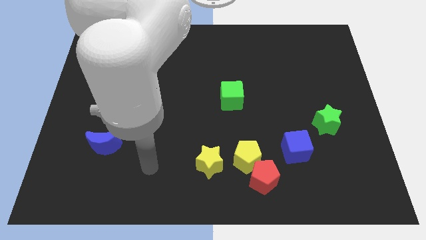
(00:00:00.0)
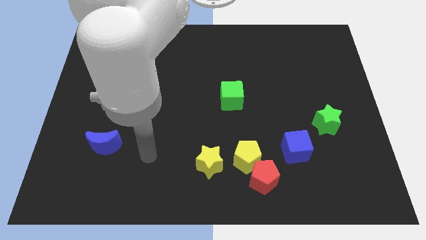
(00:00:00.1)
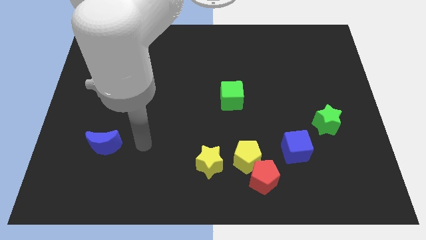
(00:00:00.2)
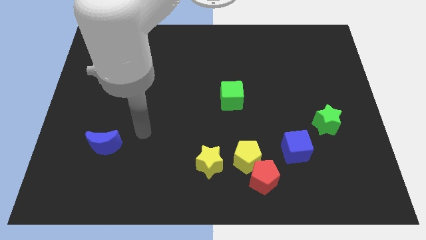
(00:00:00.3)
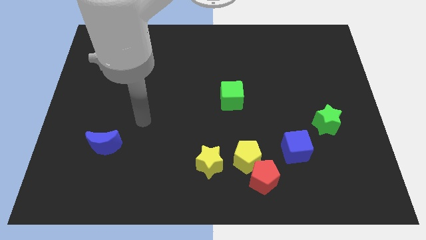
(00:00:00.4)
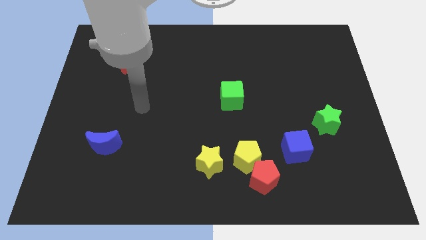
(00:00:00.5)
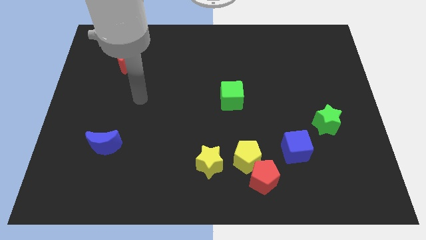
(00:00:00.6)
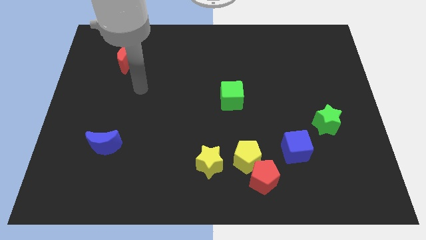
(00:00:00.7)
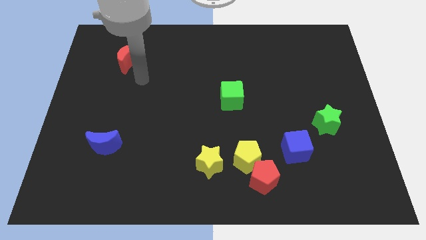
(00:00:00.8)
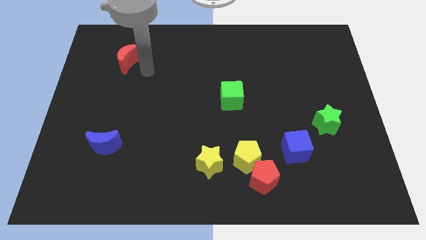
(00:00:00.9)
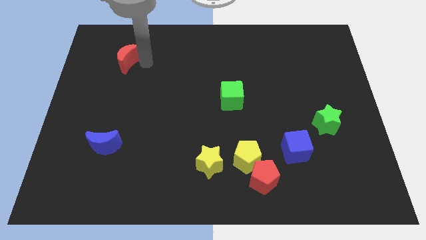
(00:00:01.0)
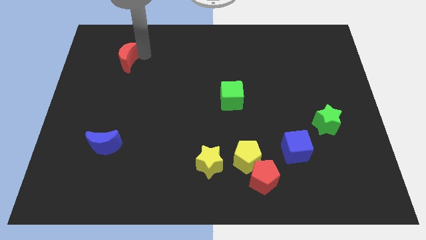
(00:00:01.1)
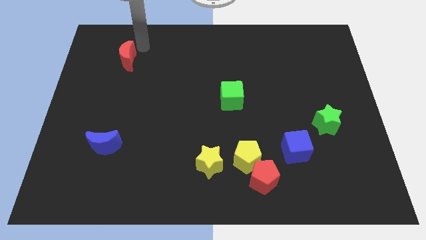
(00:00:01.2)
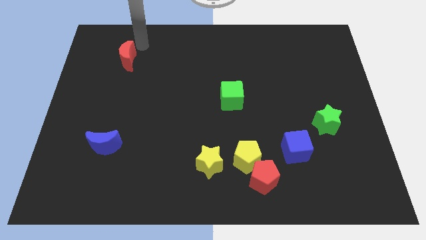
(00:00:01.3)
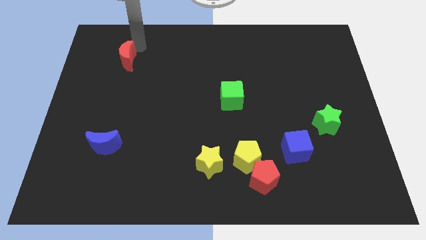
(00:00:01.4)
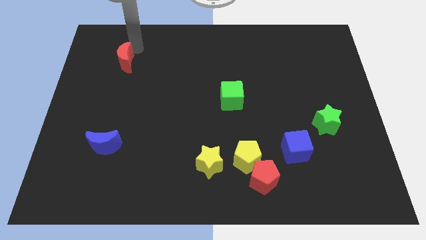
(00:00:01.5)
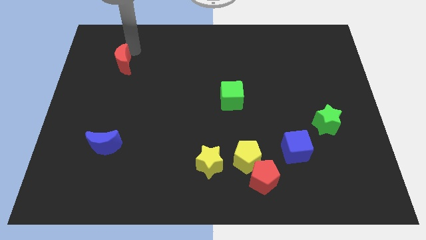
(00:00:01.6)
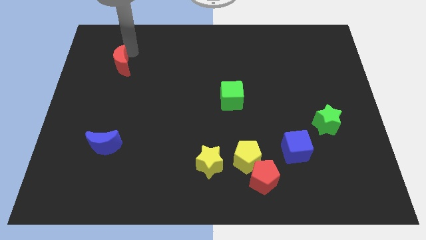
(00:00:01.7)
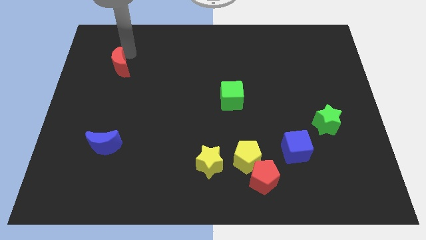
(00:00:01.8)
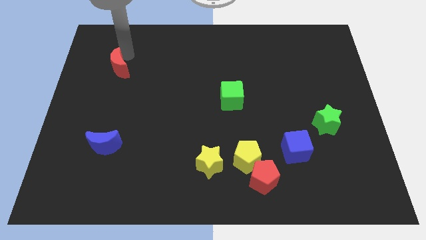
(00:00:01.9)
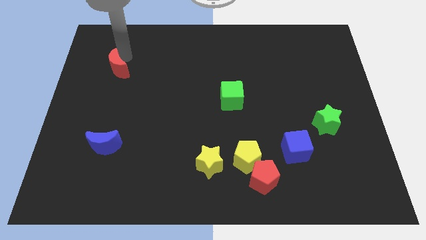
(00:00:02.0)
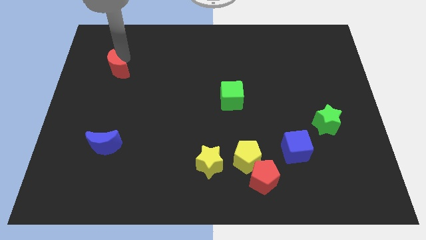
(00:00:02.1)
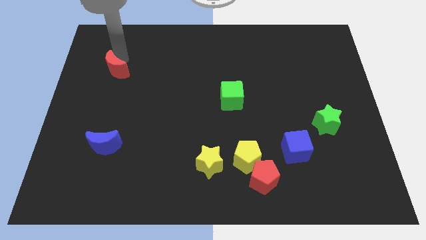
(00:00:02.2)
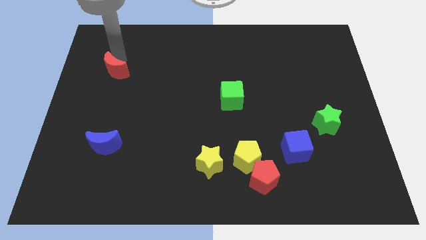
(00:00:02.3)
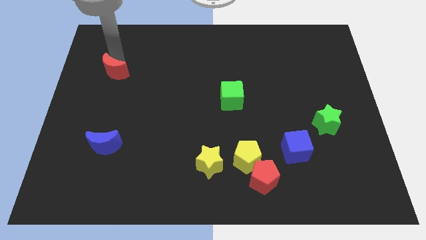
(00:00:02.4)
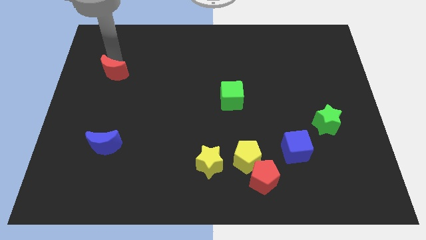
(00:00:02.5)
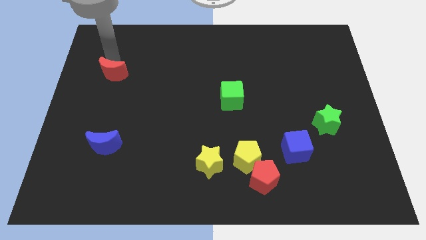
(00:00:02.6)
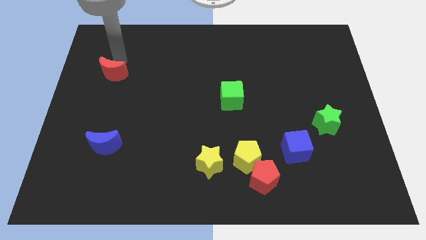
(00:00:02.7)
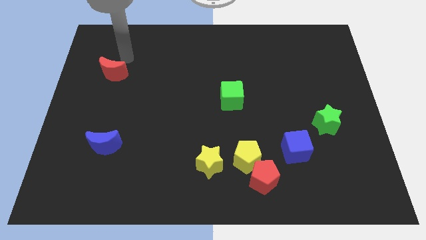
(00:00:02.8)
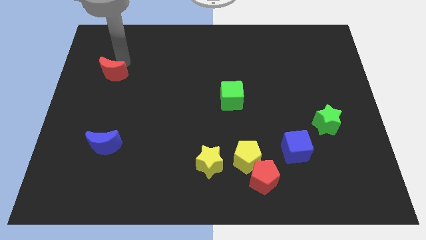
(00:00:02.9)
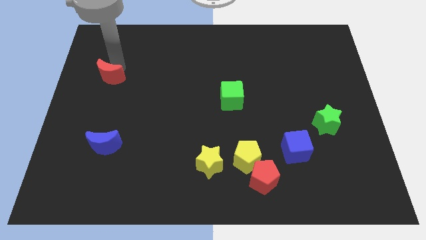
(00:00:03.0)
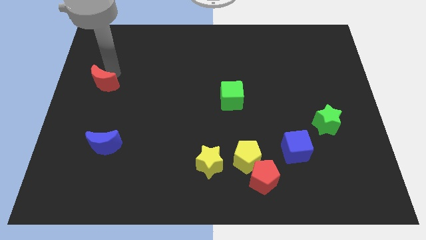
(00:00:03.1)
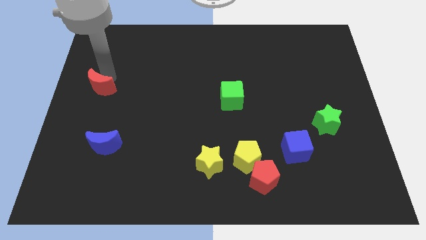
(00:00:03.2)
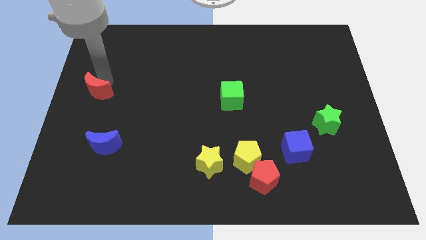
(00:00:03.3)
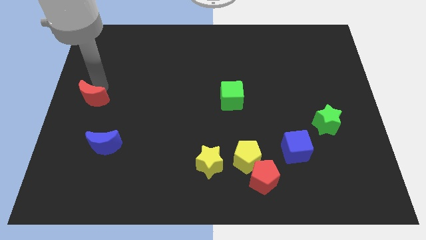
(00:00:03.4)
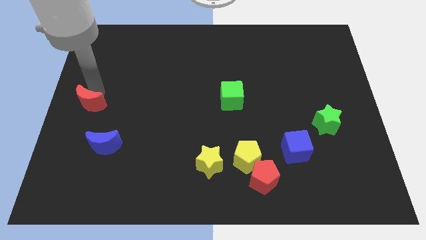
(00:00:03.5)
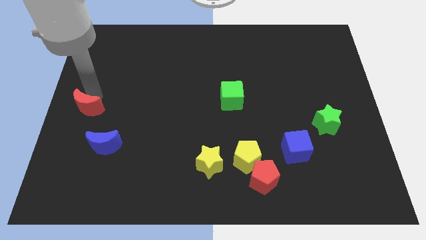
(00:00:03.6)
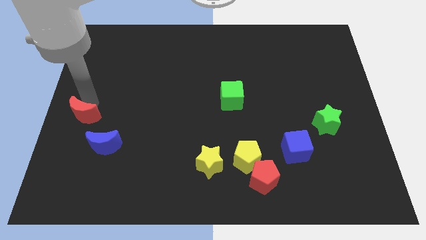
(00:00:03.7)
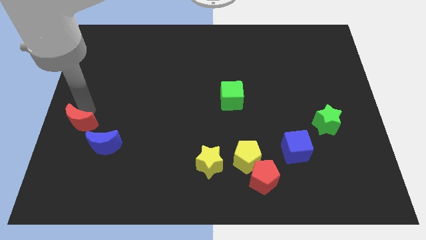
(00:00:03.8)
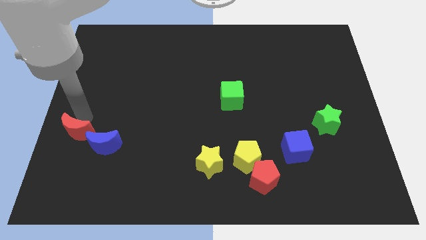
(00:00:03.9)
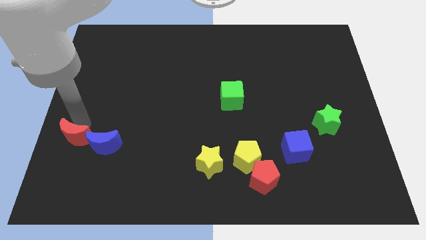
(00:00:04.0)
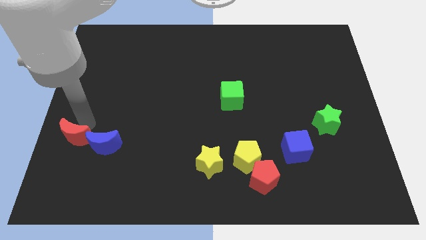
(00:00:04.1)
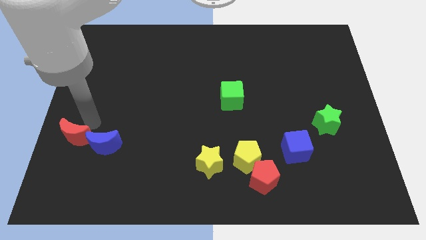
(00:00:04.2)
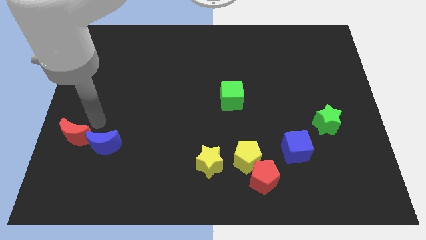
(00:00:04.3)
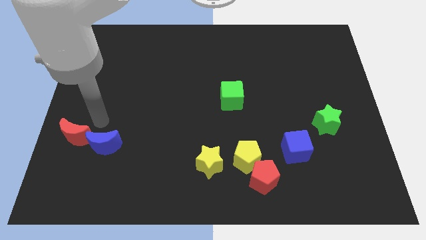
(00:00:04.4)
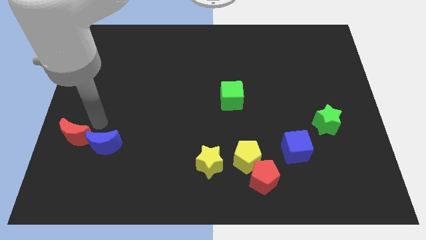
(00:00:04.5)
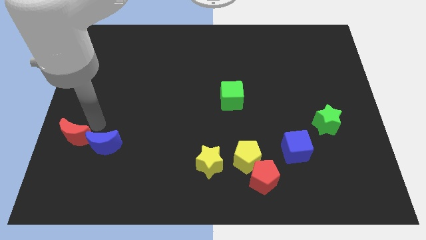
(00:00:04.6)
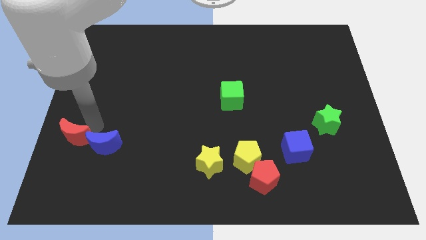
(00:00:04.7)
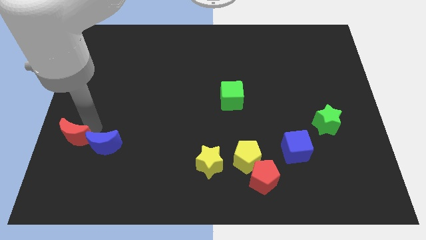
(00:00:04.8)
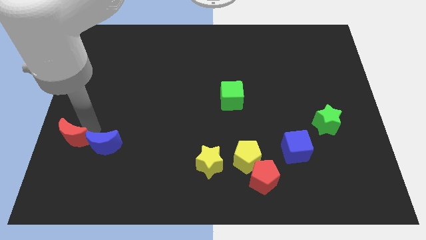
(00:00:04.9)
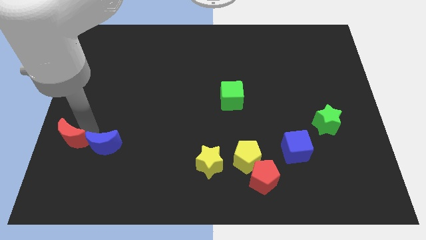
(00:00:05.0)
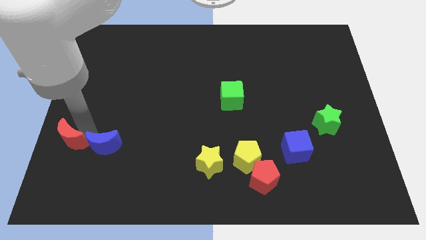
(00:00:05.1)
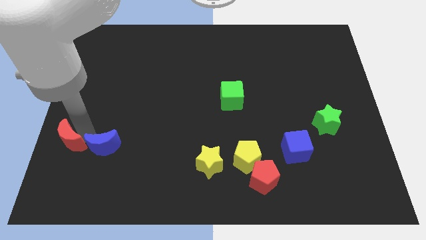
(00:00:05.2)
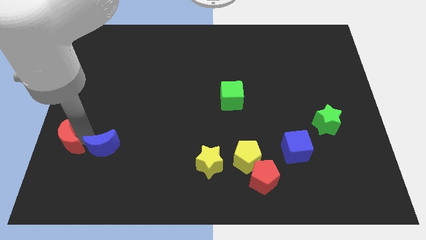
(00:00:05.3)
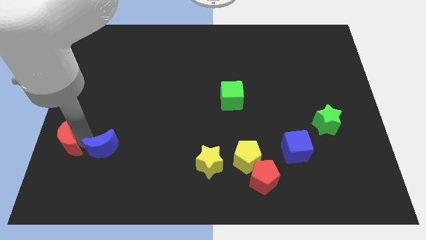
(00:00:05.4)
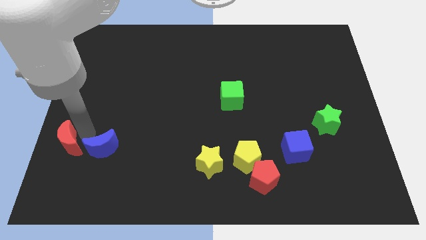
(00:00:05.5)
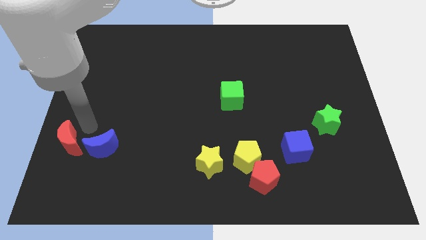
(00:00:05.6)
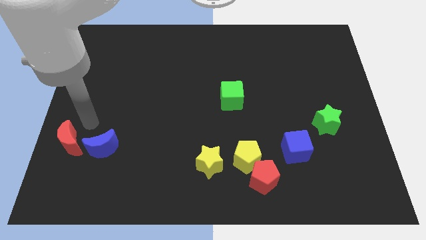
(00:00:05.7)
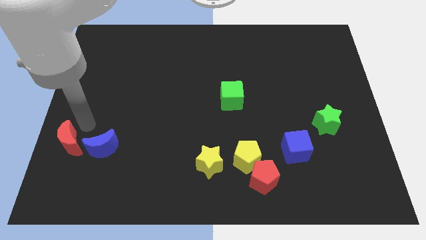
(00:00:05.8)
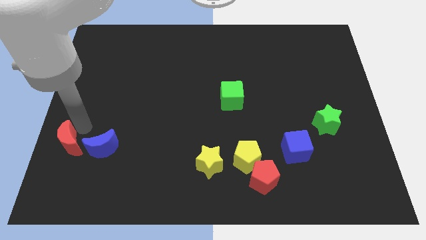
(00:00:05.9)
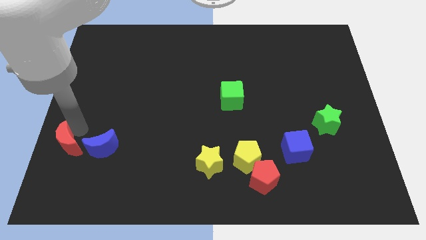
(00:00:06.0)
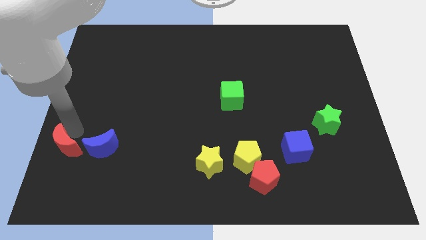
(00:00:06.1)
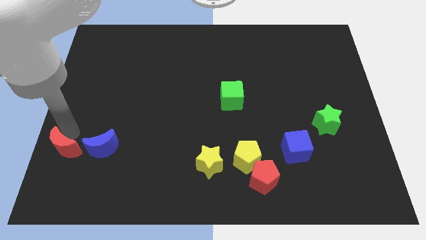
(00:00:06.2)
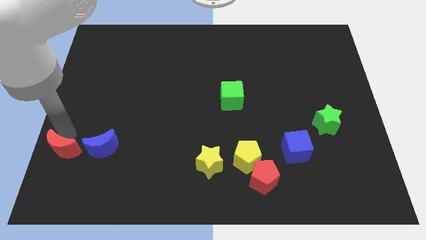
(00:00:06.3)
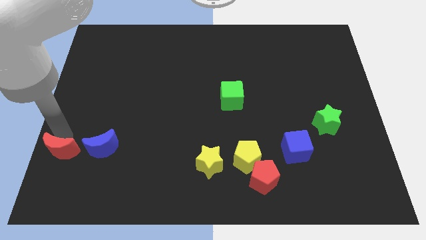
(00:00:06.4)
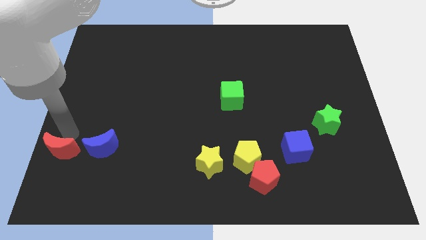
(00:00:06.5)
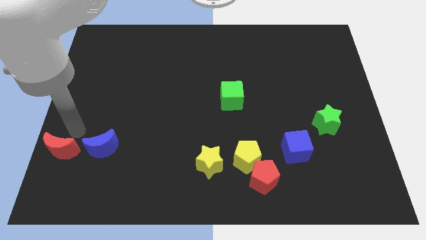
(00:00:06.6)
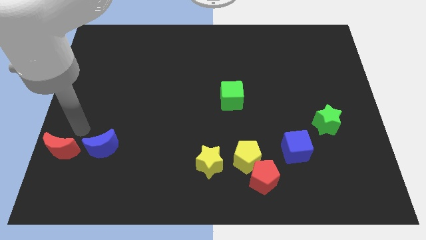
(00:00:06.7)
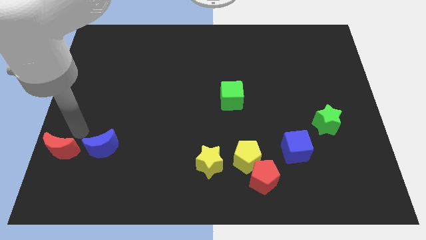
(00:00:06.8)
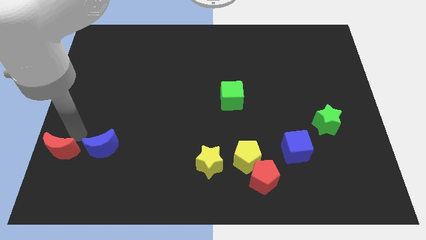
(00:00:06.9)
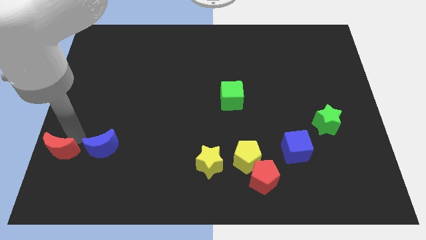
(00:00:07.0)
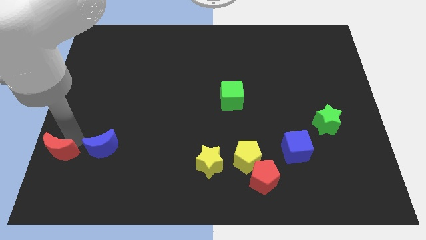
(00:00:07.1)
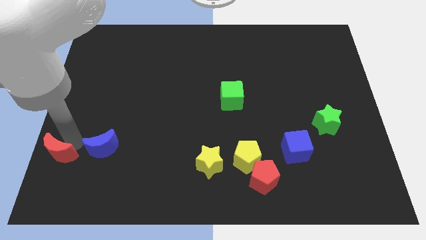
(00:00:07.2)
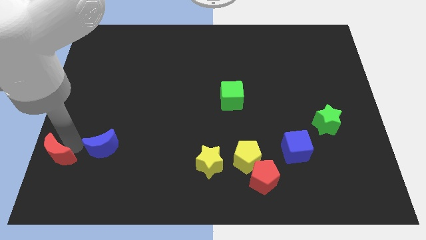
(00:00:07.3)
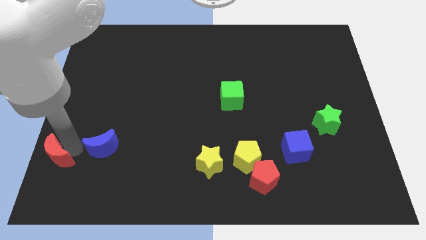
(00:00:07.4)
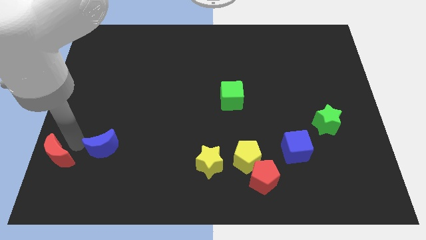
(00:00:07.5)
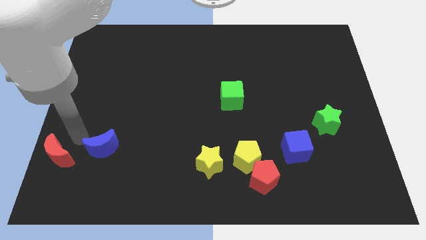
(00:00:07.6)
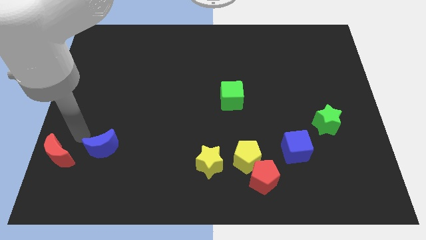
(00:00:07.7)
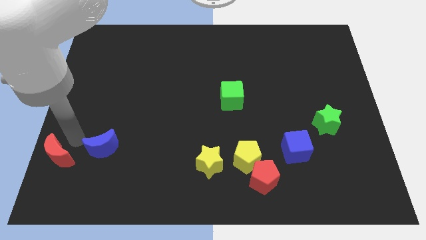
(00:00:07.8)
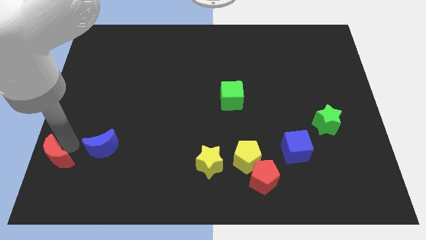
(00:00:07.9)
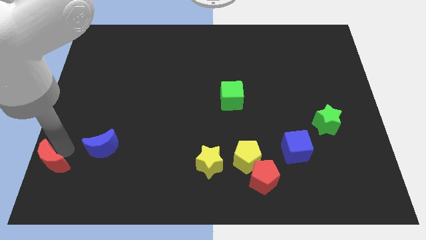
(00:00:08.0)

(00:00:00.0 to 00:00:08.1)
push the red moon to the lower left corner
